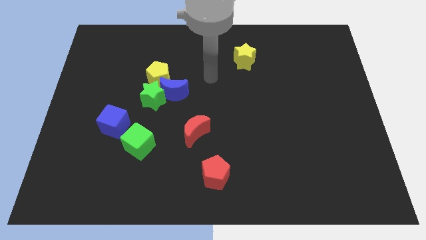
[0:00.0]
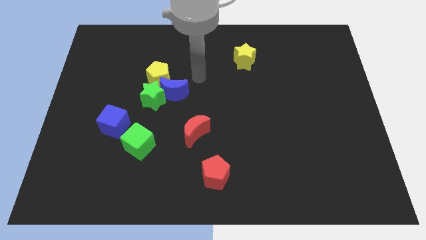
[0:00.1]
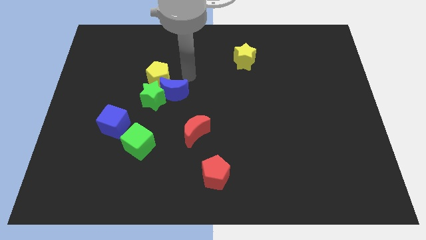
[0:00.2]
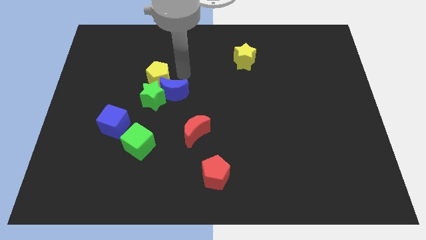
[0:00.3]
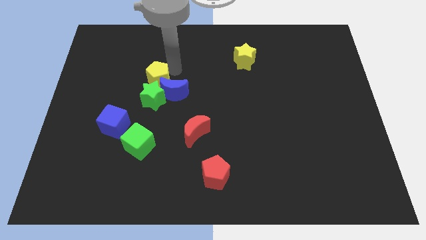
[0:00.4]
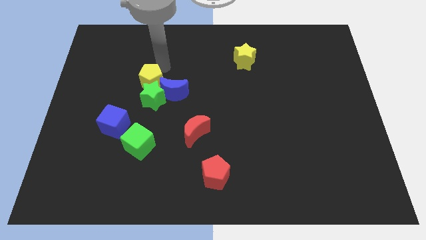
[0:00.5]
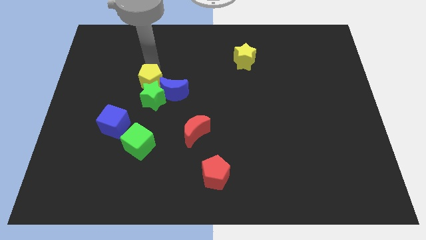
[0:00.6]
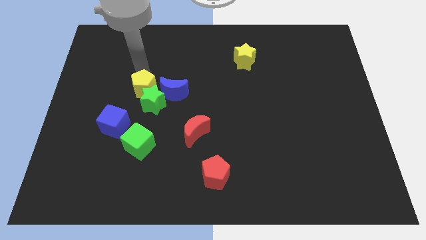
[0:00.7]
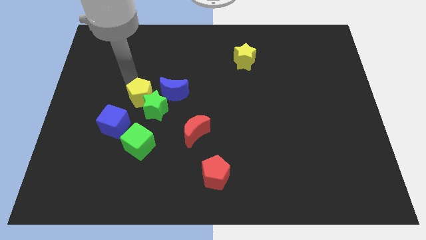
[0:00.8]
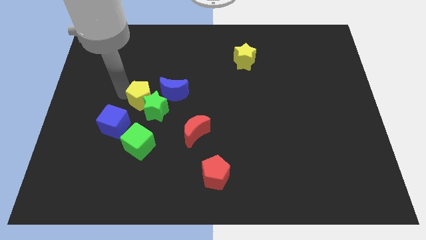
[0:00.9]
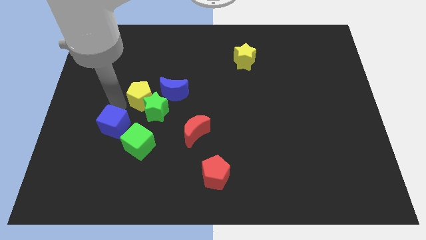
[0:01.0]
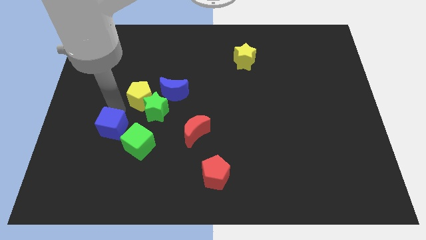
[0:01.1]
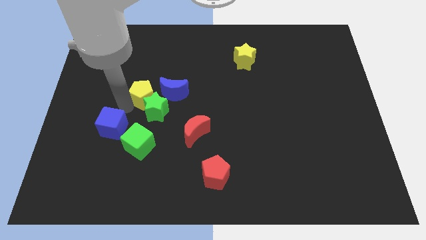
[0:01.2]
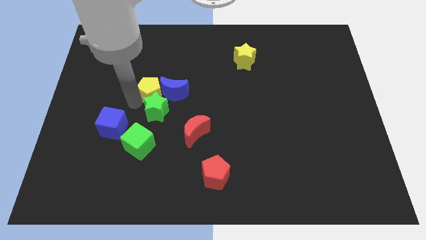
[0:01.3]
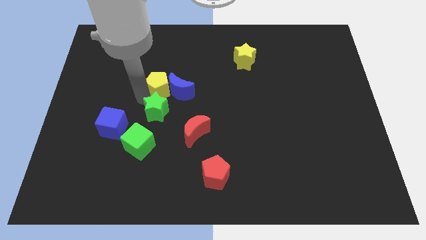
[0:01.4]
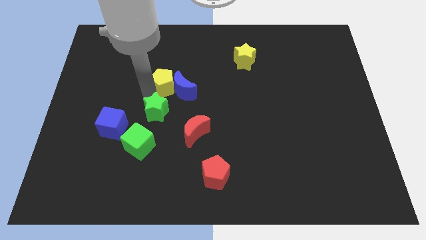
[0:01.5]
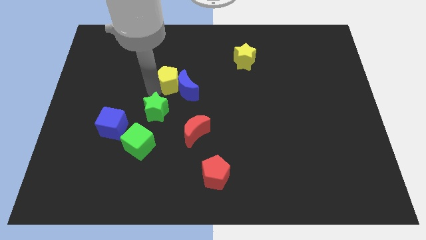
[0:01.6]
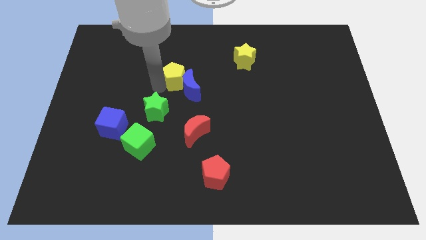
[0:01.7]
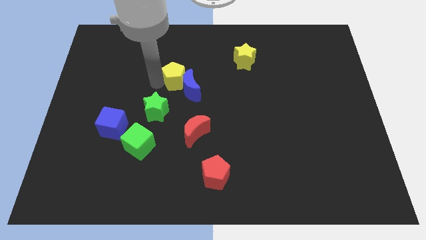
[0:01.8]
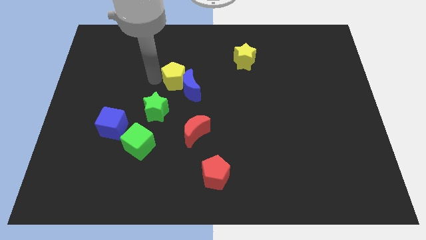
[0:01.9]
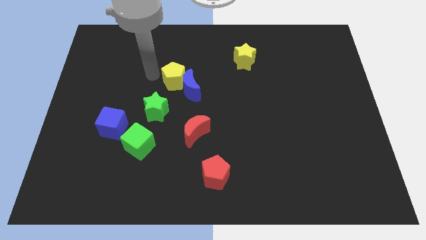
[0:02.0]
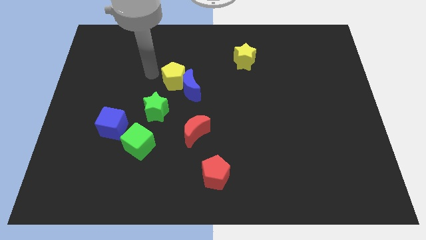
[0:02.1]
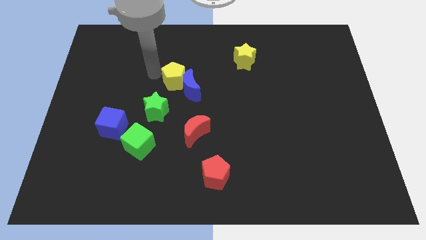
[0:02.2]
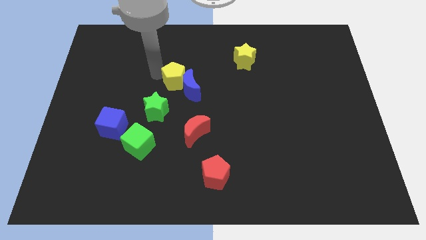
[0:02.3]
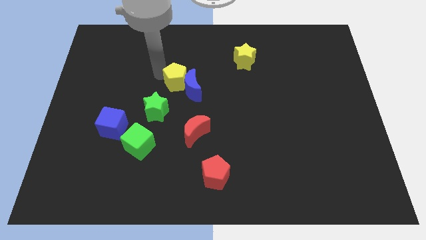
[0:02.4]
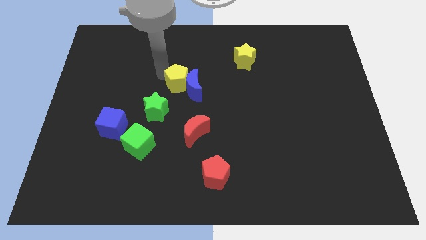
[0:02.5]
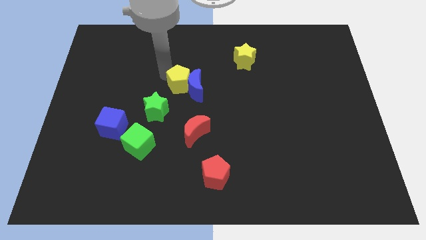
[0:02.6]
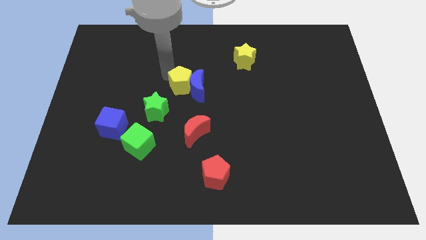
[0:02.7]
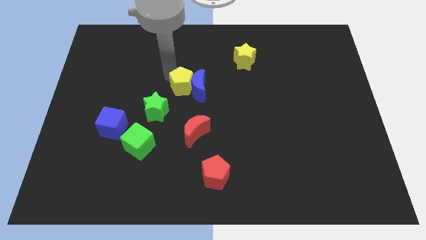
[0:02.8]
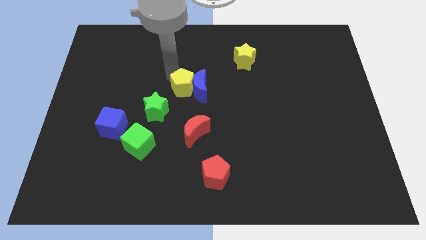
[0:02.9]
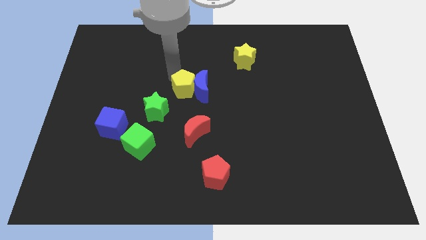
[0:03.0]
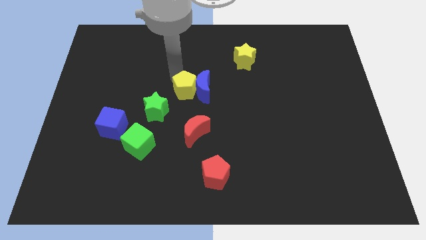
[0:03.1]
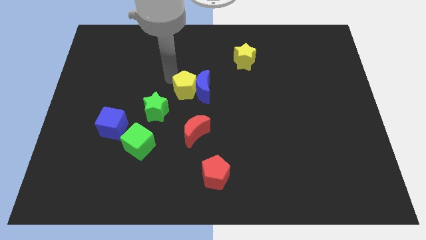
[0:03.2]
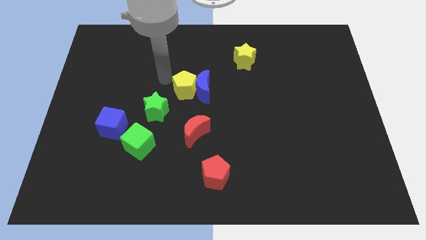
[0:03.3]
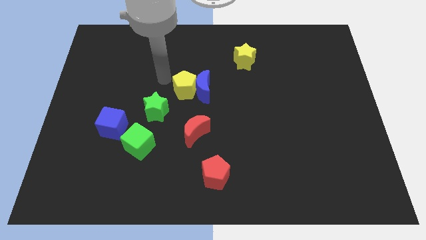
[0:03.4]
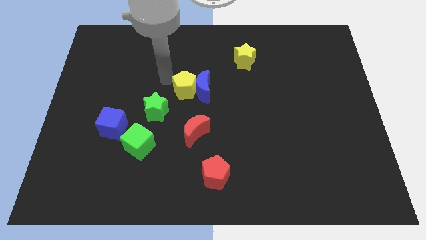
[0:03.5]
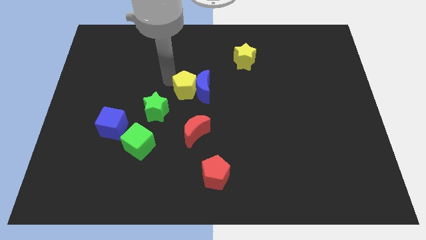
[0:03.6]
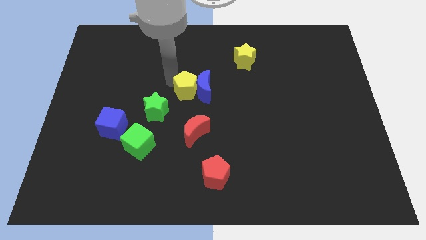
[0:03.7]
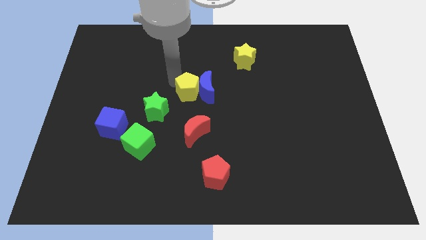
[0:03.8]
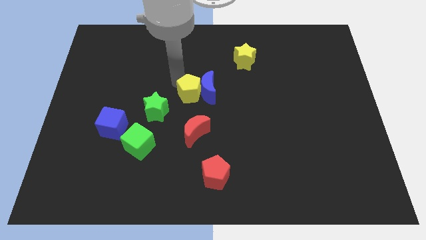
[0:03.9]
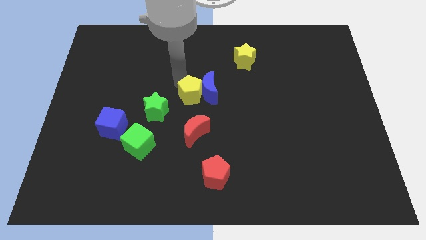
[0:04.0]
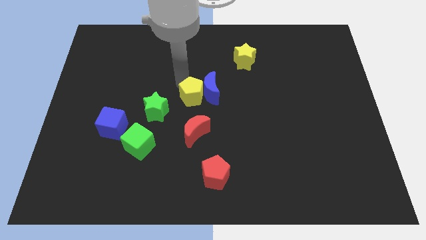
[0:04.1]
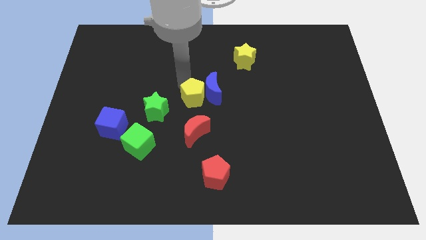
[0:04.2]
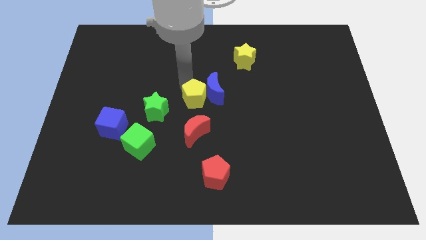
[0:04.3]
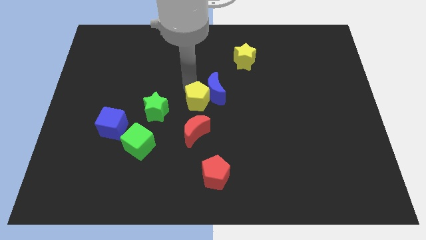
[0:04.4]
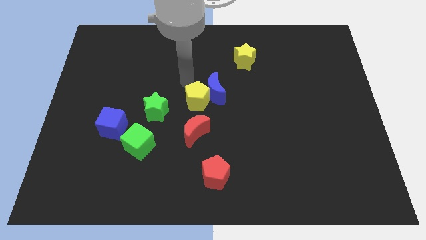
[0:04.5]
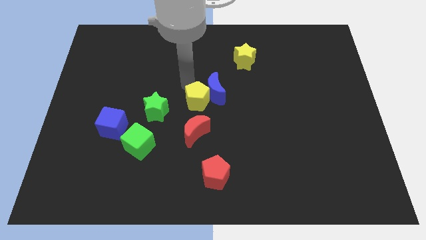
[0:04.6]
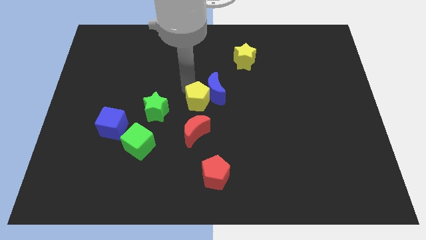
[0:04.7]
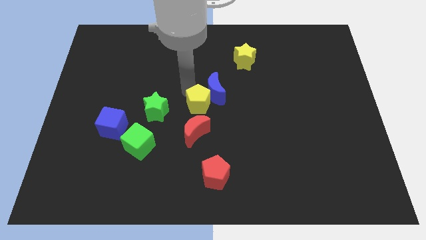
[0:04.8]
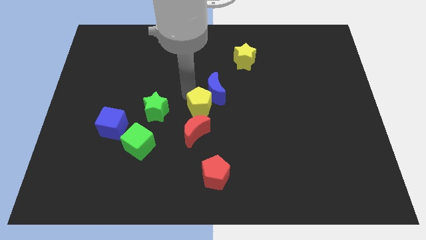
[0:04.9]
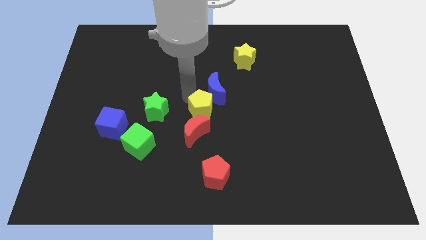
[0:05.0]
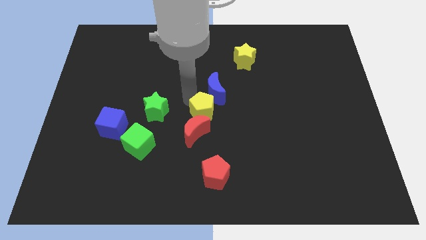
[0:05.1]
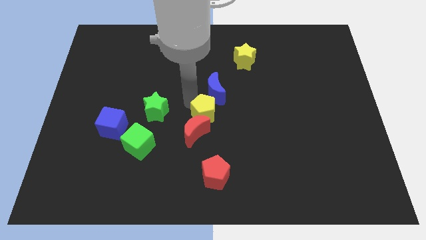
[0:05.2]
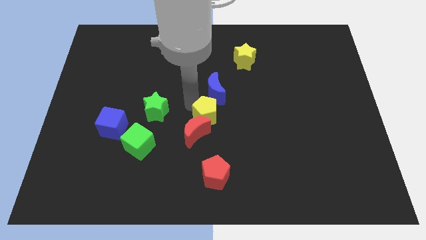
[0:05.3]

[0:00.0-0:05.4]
put the yellow pentagon above the red pentagon

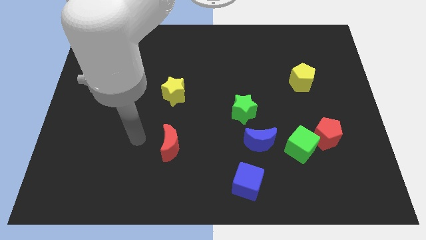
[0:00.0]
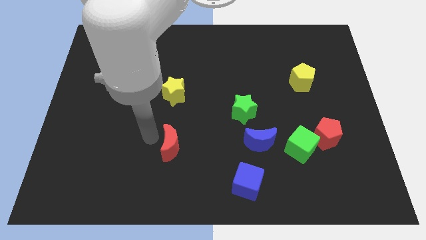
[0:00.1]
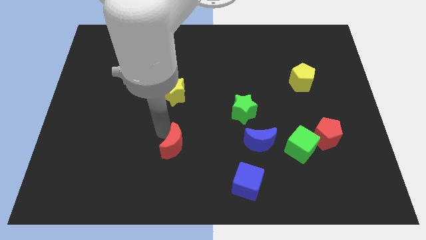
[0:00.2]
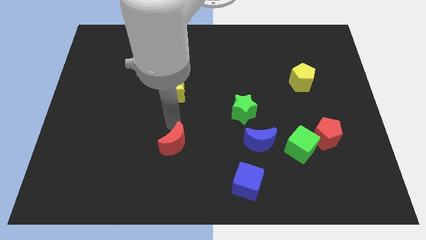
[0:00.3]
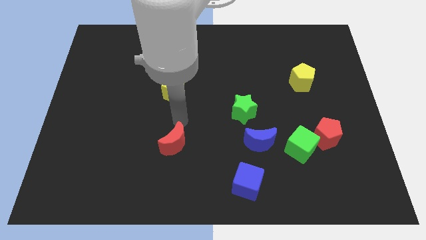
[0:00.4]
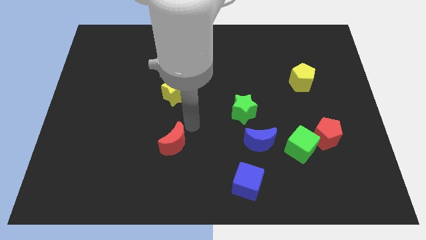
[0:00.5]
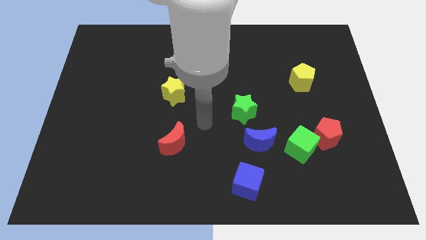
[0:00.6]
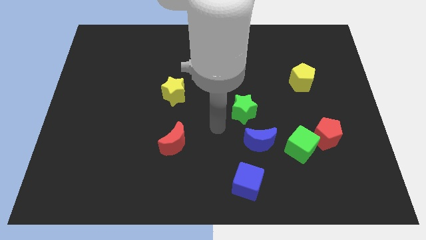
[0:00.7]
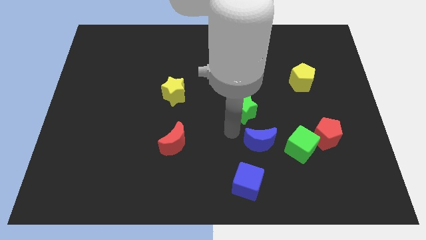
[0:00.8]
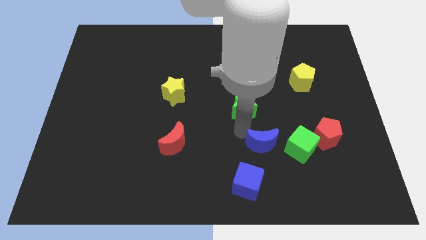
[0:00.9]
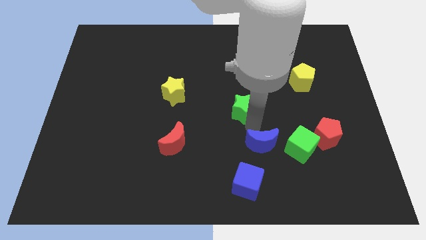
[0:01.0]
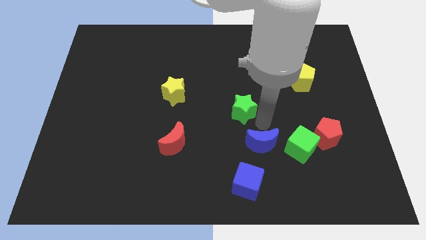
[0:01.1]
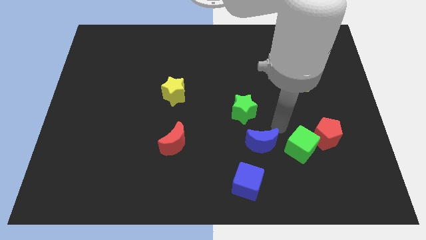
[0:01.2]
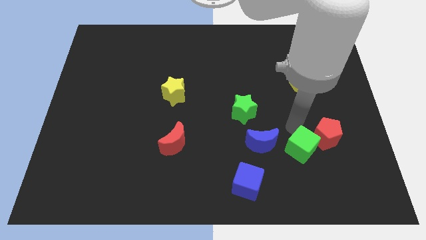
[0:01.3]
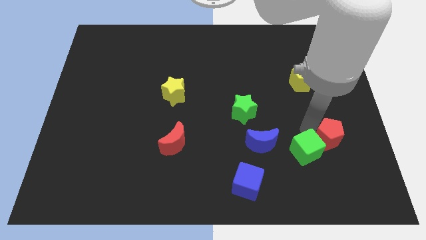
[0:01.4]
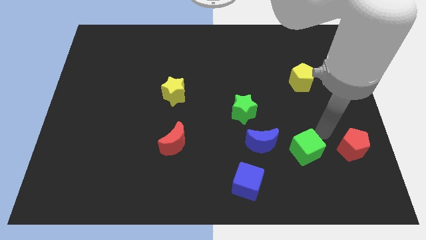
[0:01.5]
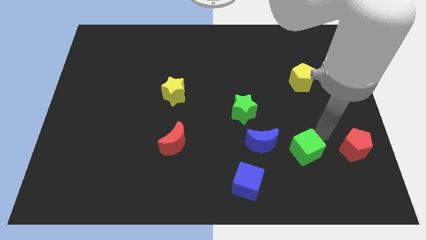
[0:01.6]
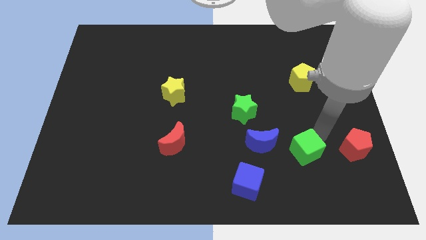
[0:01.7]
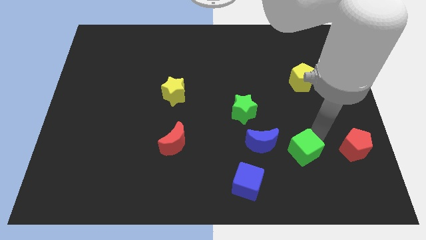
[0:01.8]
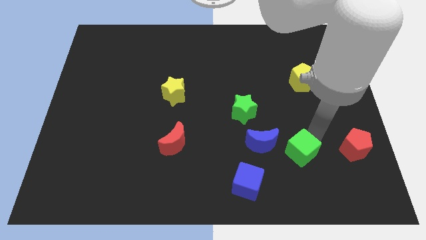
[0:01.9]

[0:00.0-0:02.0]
put the green cube diagonally down and to the right of the blue moon

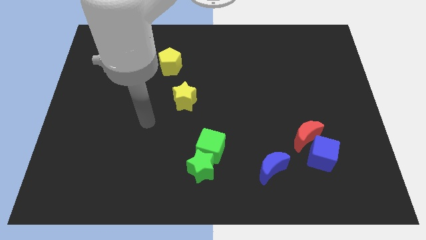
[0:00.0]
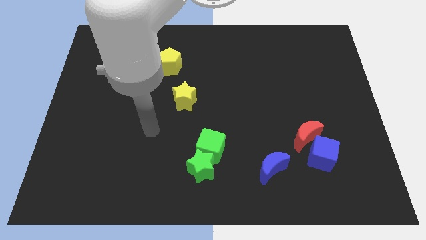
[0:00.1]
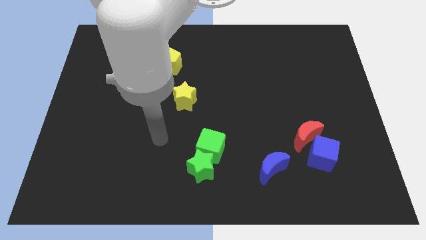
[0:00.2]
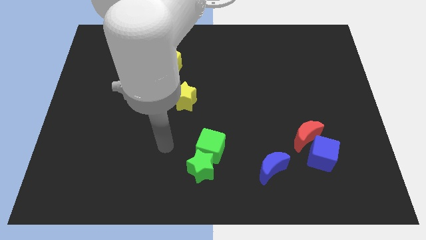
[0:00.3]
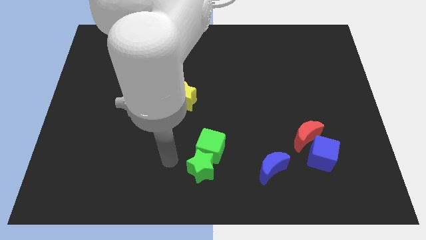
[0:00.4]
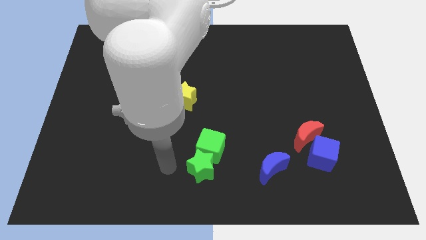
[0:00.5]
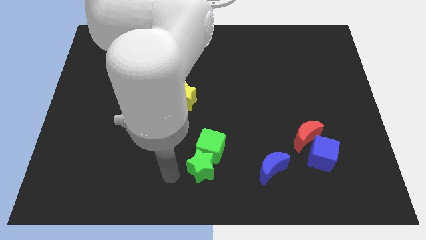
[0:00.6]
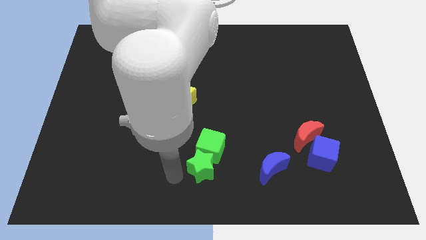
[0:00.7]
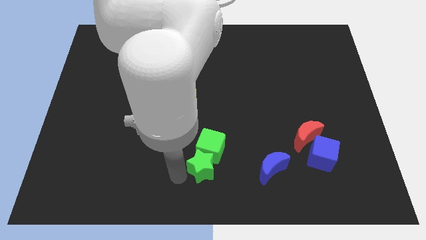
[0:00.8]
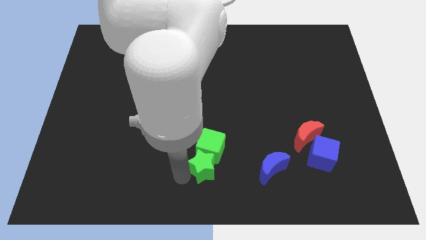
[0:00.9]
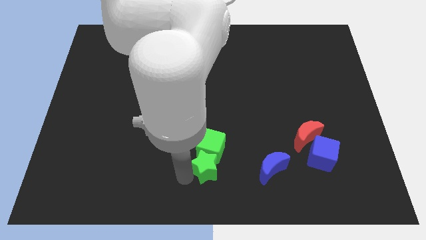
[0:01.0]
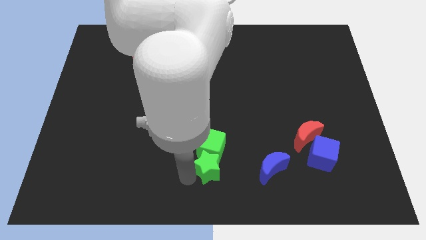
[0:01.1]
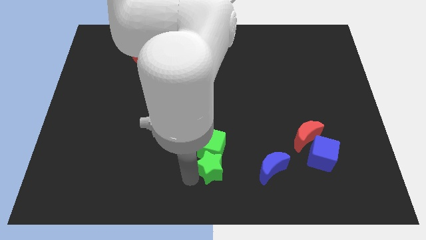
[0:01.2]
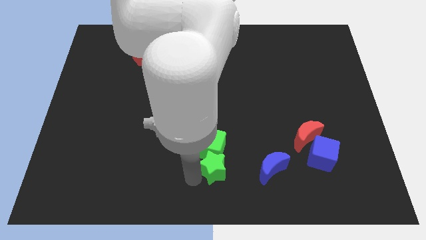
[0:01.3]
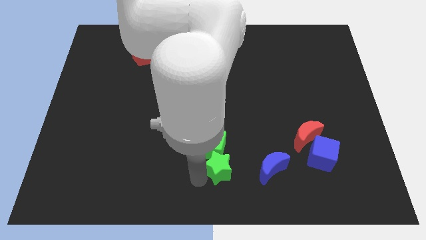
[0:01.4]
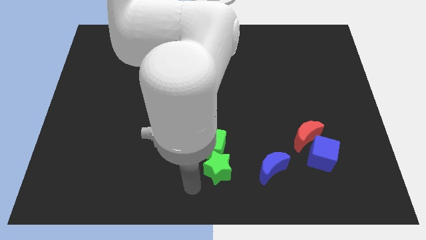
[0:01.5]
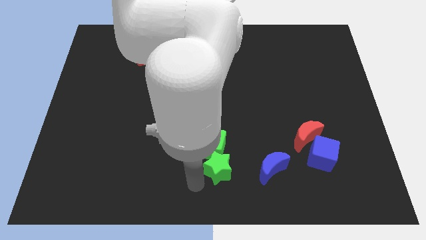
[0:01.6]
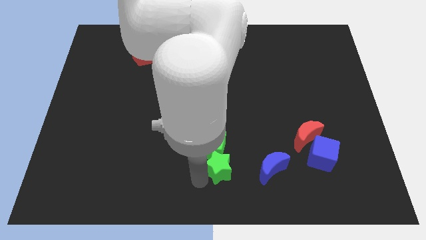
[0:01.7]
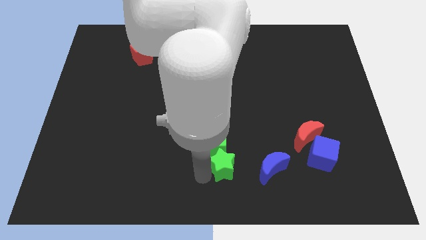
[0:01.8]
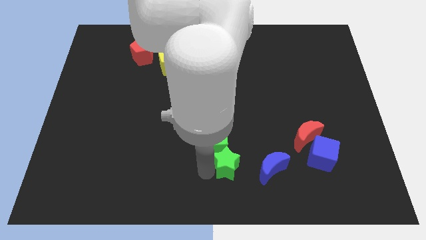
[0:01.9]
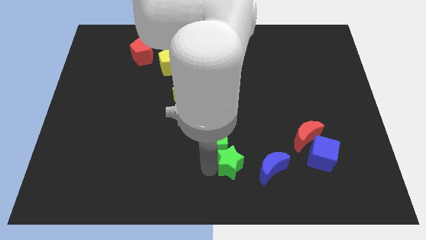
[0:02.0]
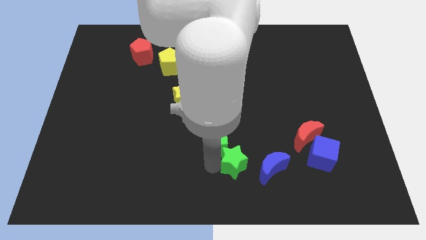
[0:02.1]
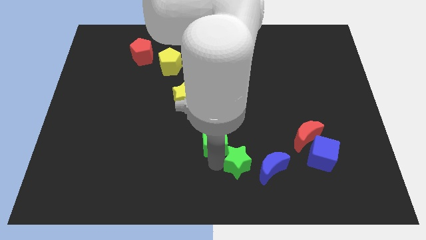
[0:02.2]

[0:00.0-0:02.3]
put the green star right of the green cube
